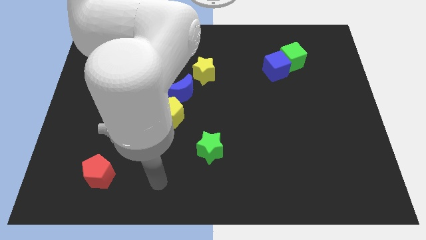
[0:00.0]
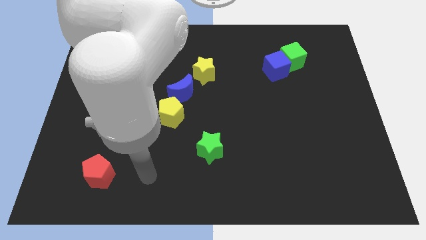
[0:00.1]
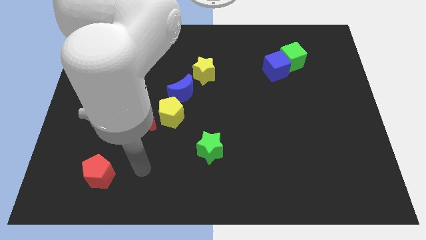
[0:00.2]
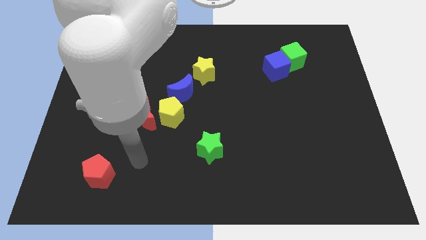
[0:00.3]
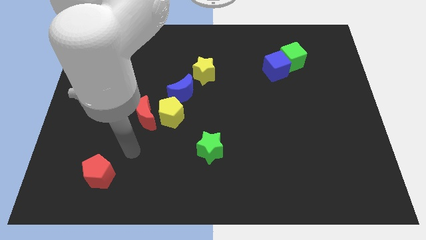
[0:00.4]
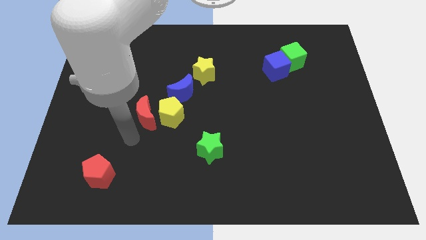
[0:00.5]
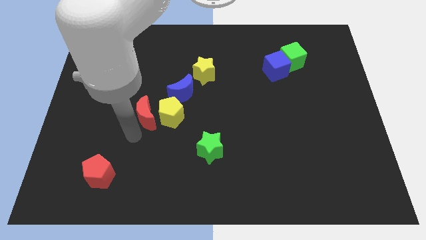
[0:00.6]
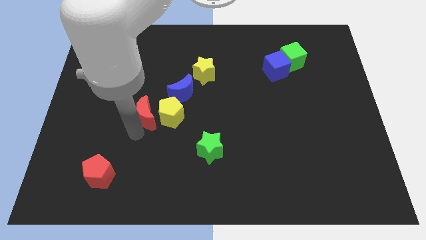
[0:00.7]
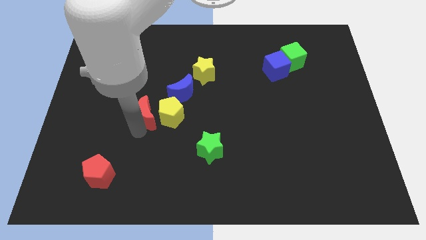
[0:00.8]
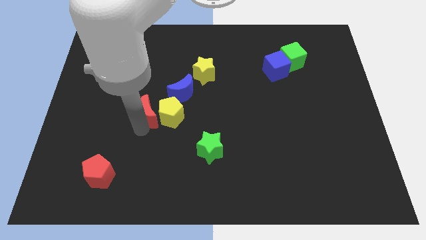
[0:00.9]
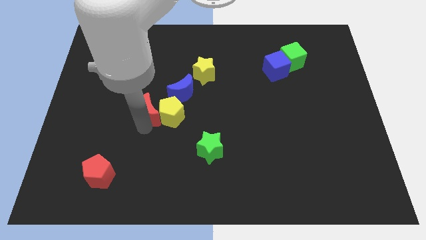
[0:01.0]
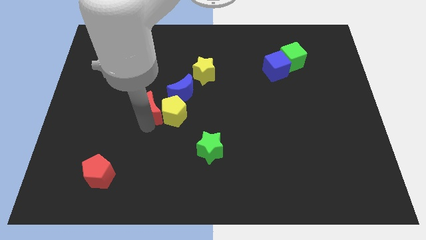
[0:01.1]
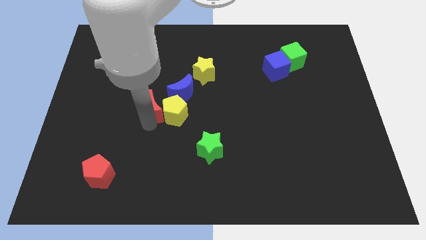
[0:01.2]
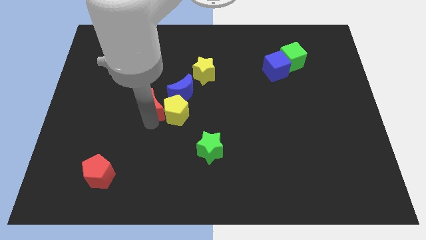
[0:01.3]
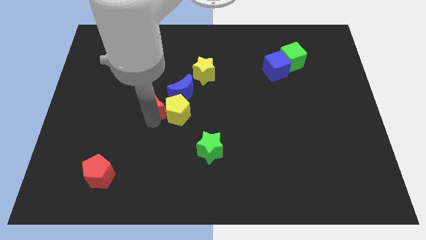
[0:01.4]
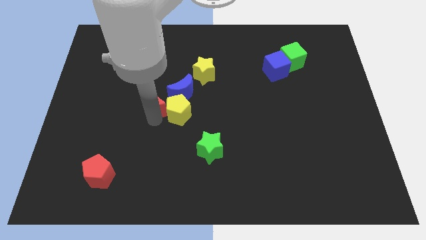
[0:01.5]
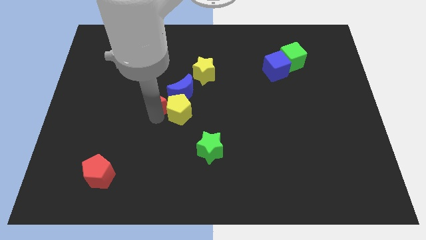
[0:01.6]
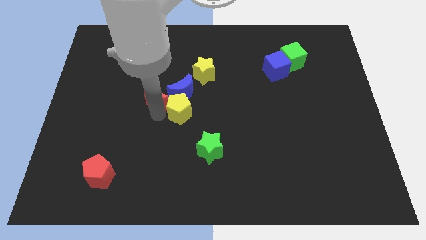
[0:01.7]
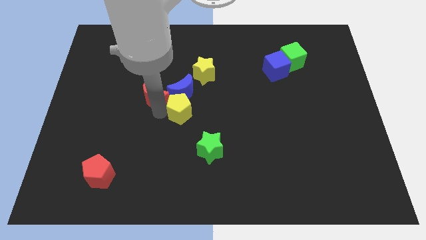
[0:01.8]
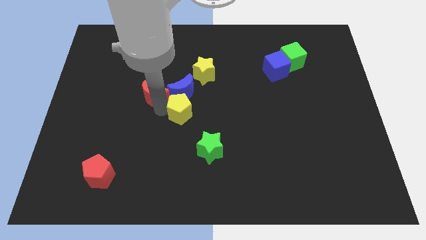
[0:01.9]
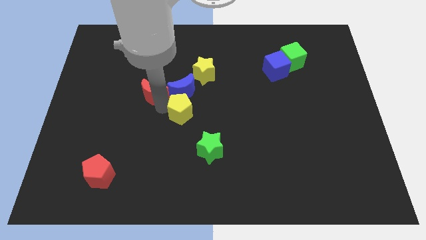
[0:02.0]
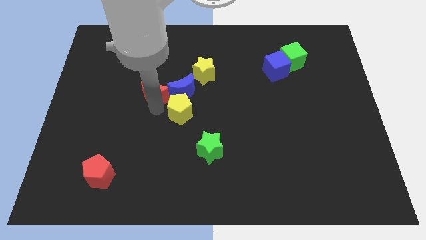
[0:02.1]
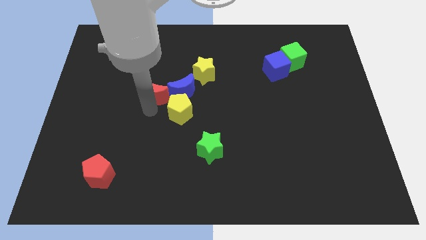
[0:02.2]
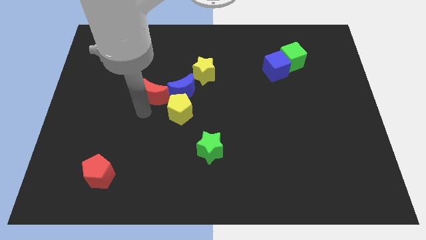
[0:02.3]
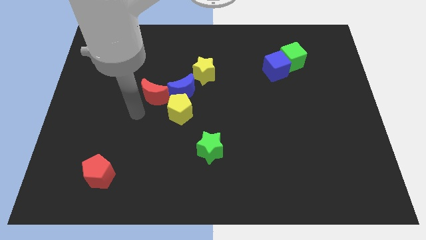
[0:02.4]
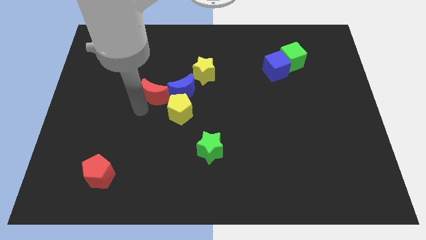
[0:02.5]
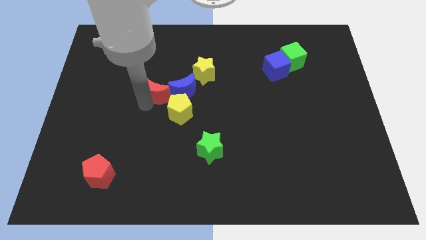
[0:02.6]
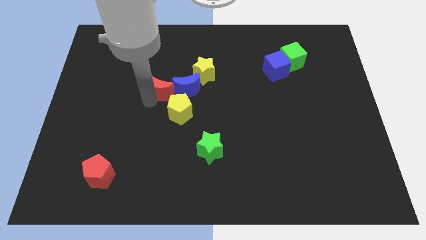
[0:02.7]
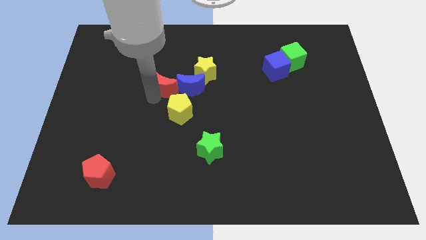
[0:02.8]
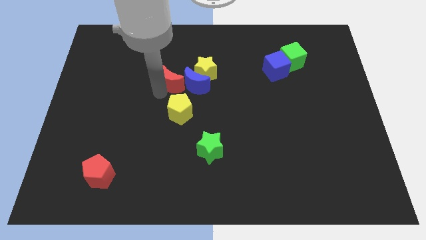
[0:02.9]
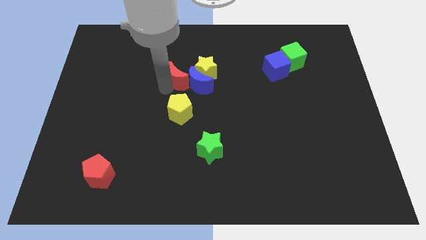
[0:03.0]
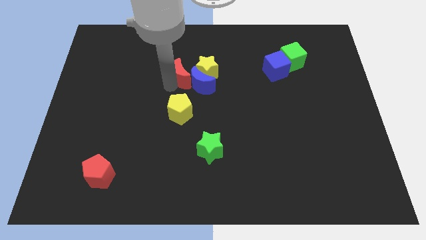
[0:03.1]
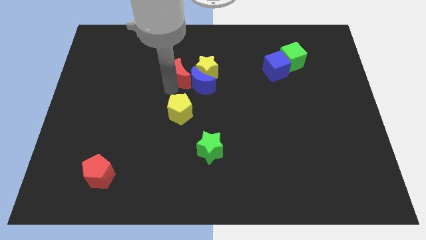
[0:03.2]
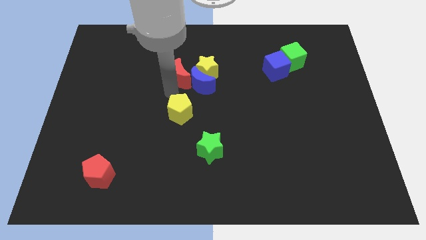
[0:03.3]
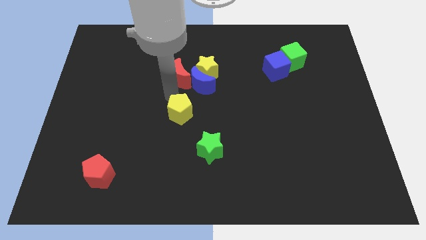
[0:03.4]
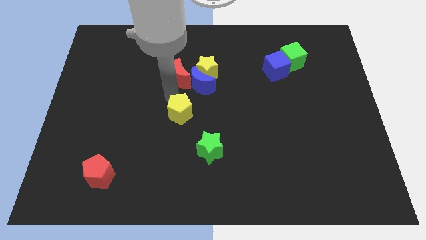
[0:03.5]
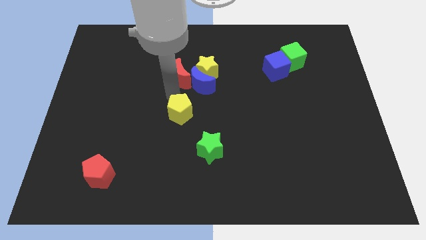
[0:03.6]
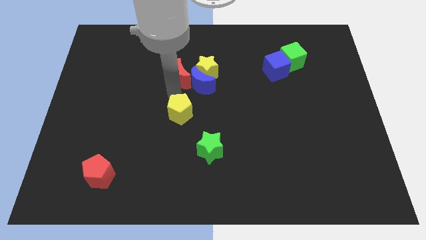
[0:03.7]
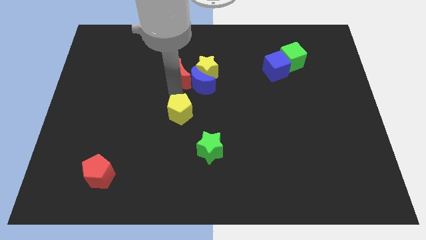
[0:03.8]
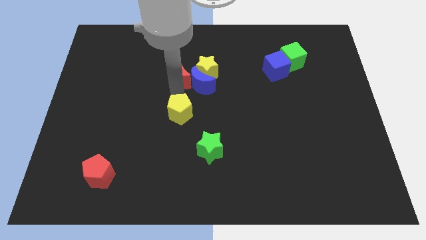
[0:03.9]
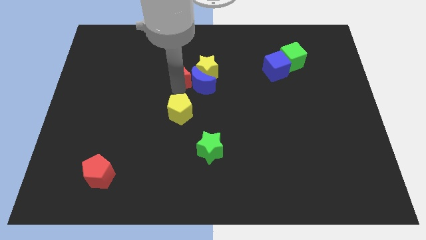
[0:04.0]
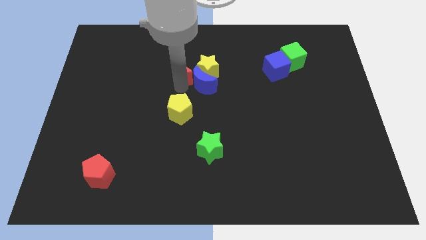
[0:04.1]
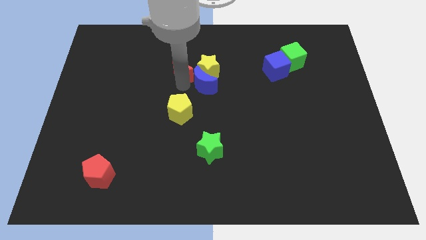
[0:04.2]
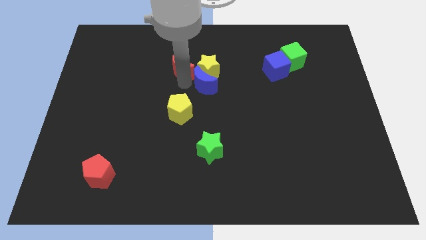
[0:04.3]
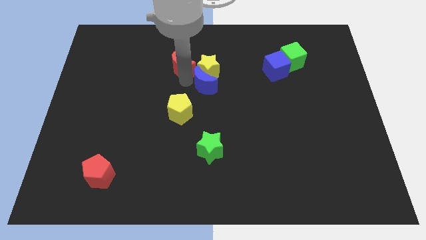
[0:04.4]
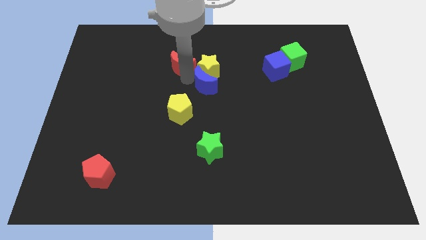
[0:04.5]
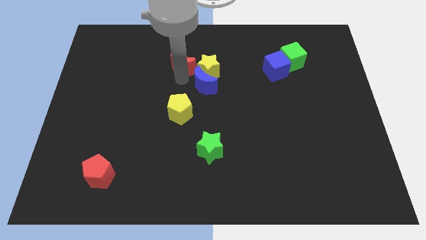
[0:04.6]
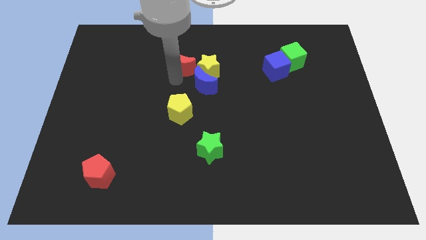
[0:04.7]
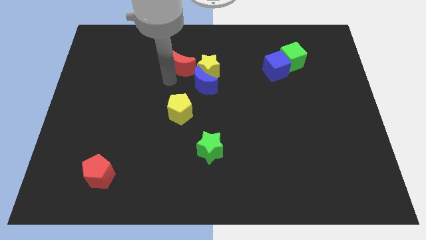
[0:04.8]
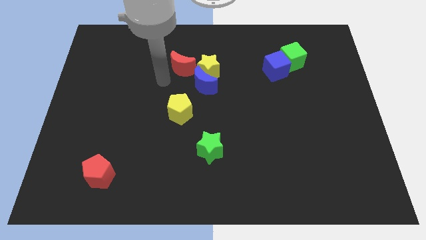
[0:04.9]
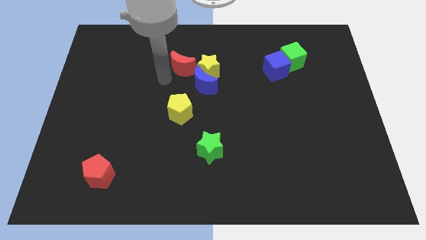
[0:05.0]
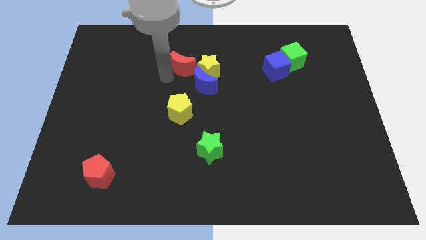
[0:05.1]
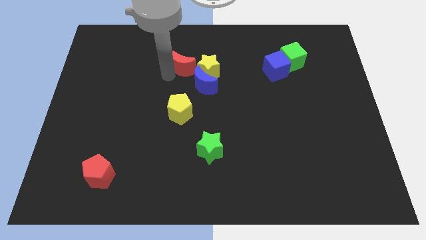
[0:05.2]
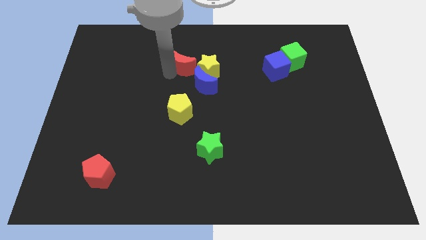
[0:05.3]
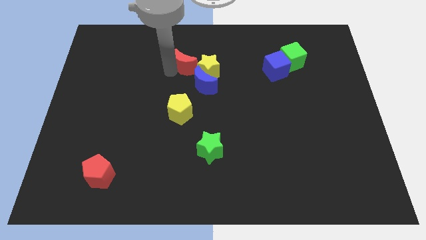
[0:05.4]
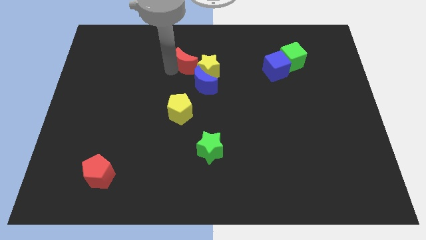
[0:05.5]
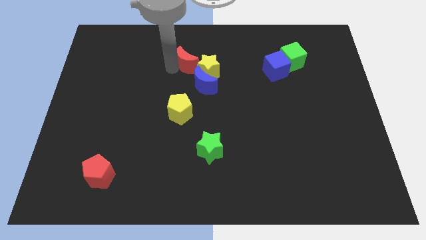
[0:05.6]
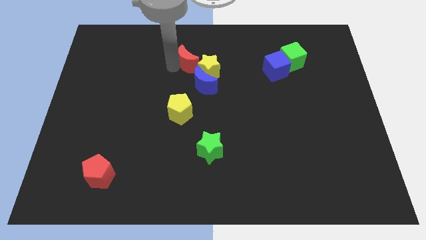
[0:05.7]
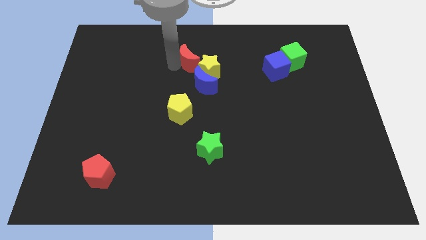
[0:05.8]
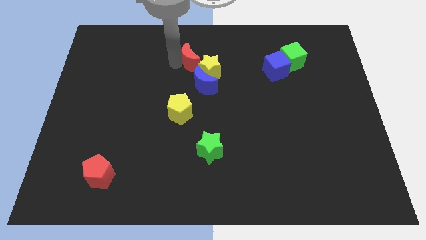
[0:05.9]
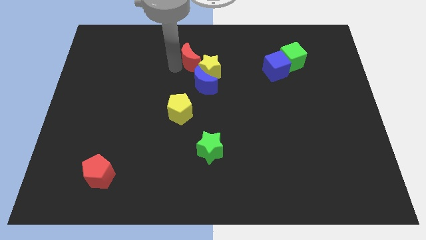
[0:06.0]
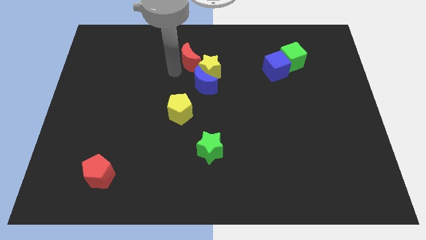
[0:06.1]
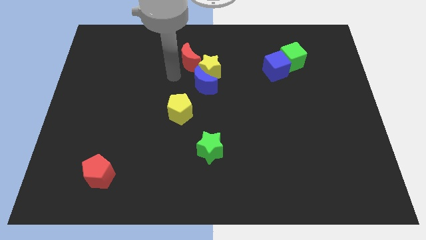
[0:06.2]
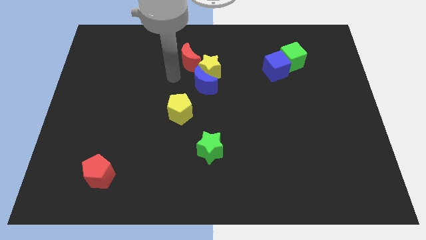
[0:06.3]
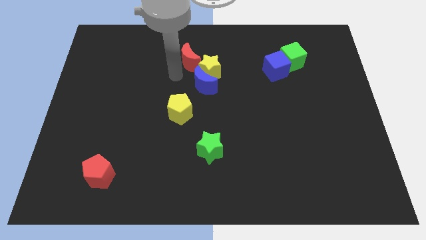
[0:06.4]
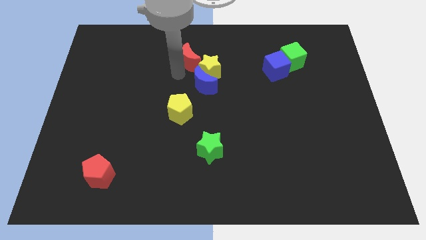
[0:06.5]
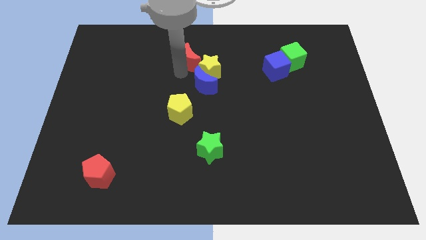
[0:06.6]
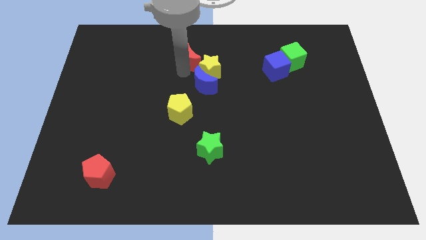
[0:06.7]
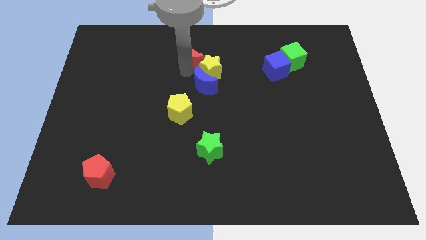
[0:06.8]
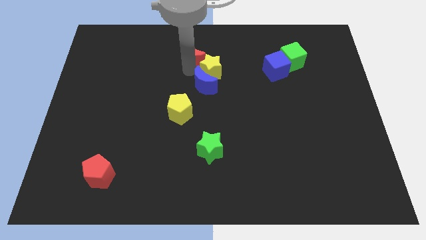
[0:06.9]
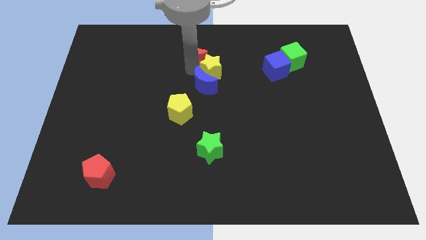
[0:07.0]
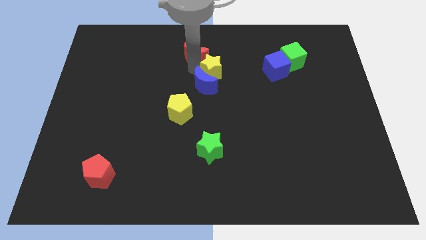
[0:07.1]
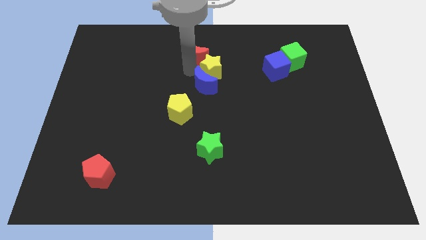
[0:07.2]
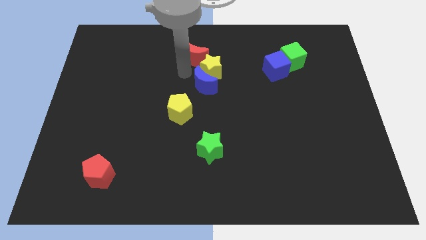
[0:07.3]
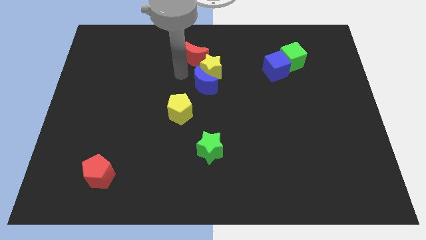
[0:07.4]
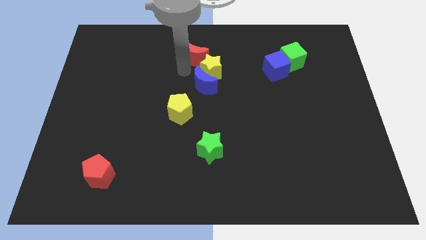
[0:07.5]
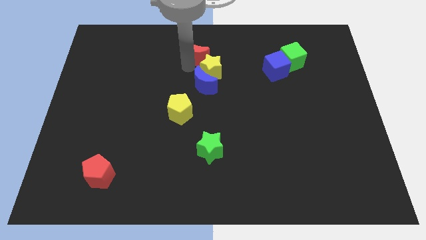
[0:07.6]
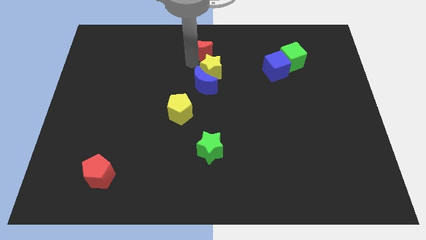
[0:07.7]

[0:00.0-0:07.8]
put the red moon to the top side
